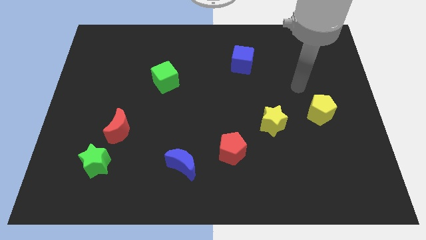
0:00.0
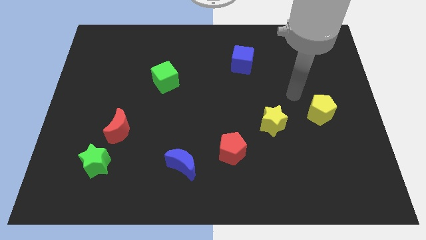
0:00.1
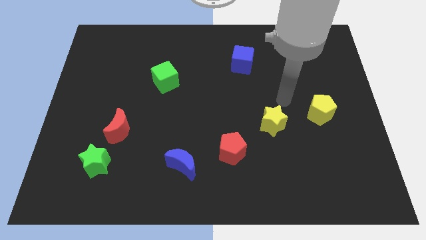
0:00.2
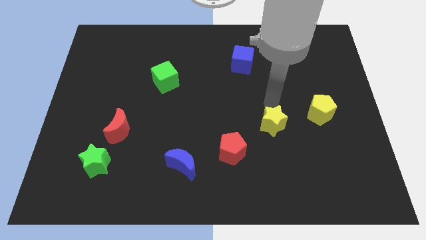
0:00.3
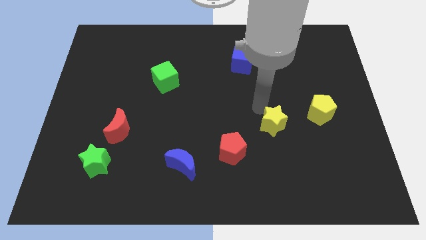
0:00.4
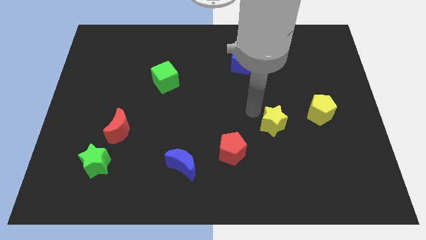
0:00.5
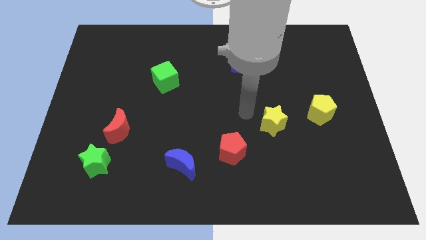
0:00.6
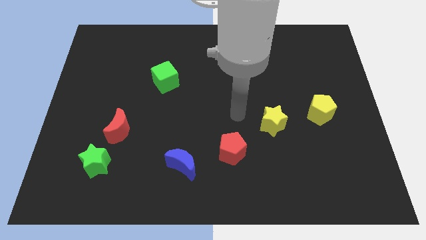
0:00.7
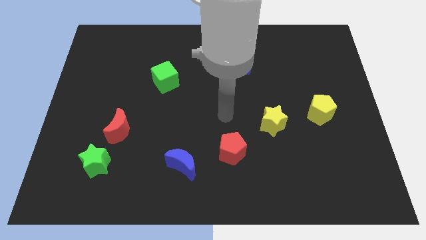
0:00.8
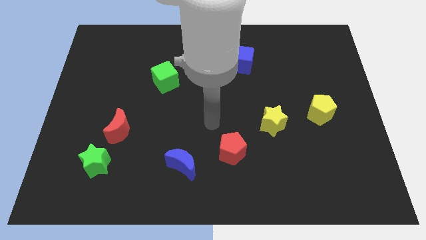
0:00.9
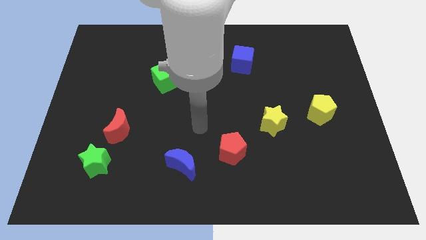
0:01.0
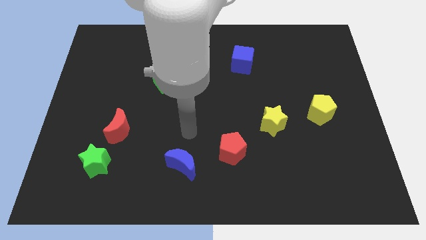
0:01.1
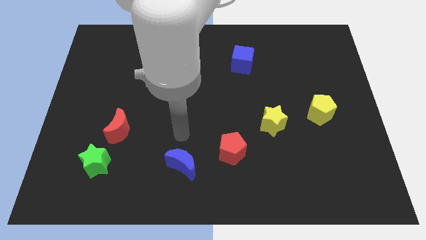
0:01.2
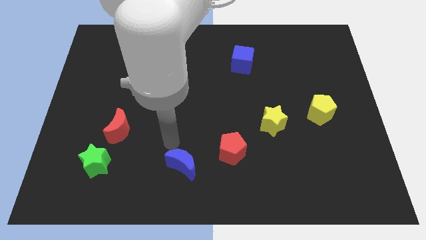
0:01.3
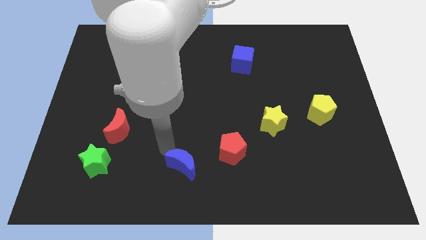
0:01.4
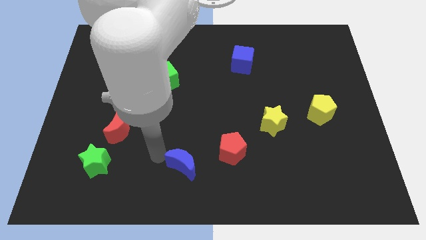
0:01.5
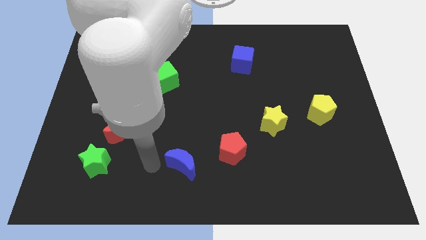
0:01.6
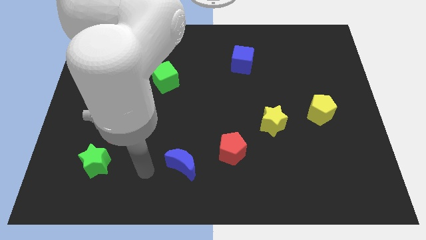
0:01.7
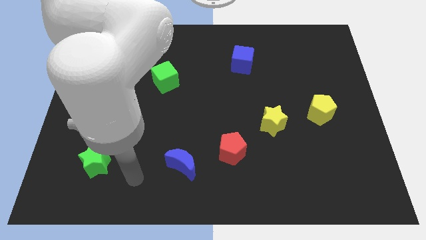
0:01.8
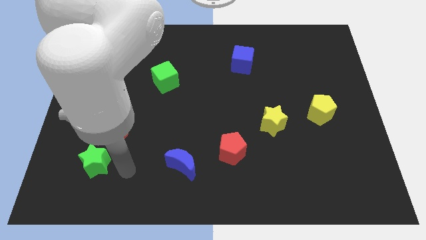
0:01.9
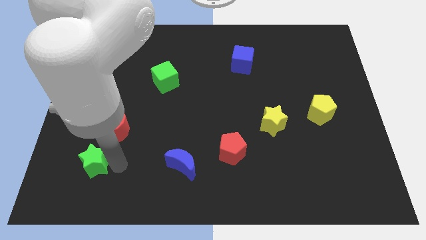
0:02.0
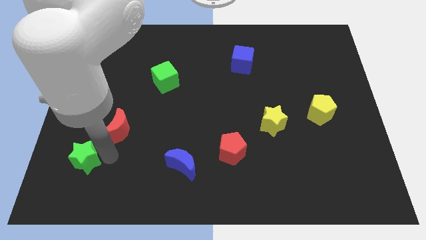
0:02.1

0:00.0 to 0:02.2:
separate the red moon from the green star

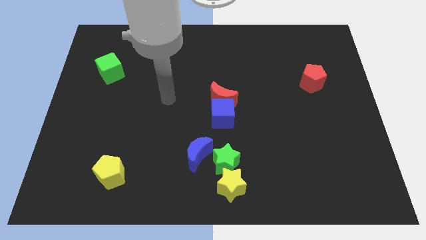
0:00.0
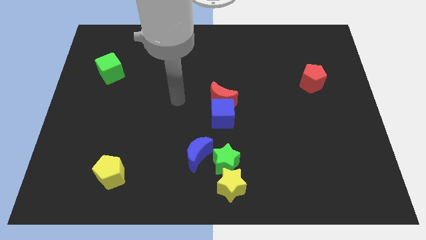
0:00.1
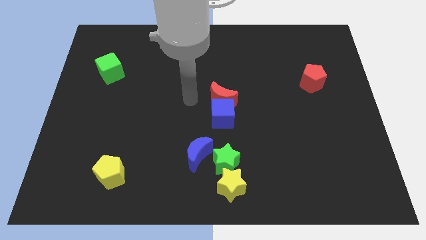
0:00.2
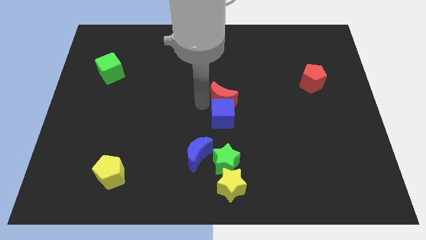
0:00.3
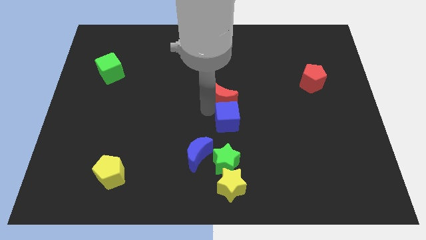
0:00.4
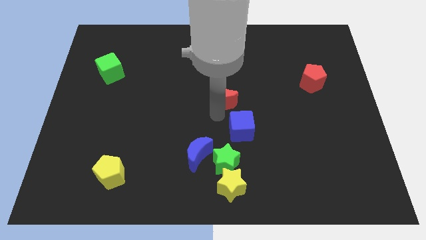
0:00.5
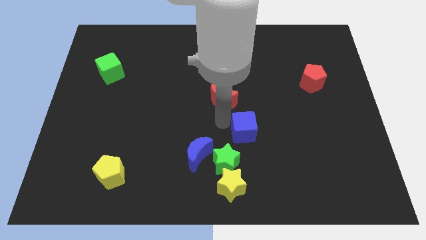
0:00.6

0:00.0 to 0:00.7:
pull the red moon apart from the blue cube

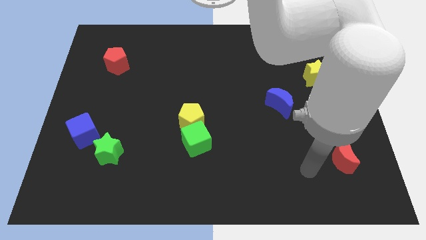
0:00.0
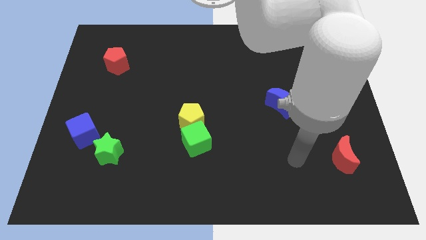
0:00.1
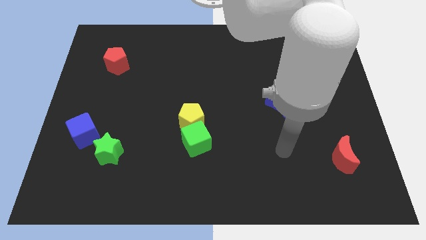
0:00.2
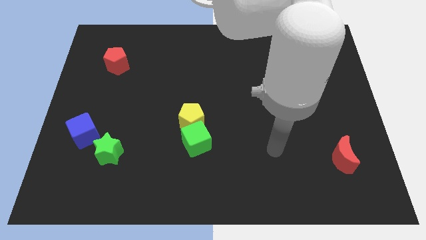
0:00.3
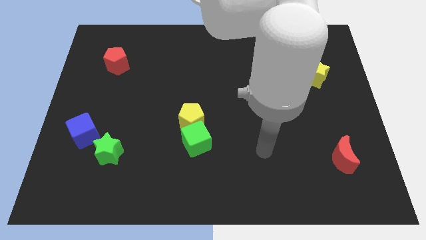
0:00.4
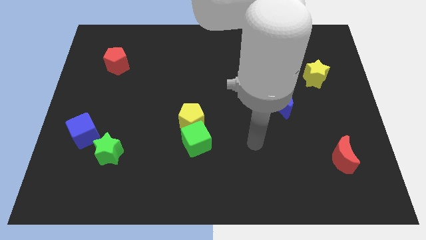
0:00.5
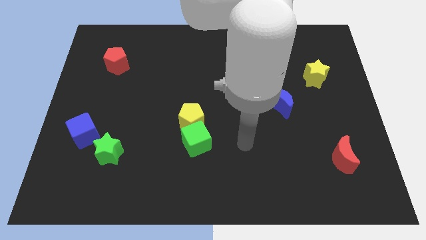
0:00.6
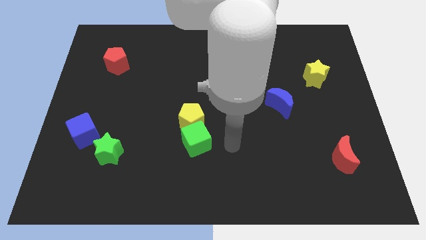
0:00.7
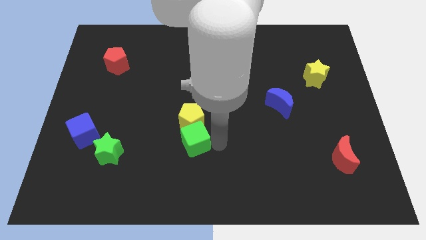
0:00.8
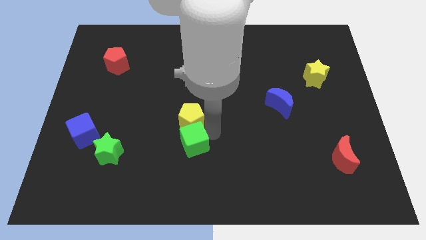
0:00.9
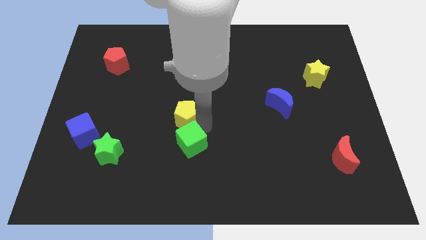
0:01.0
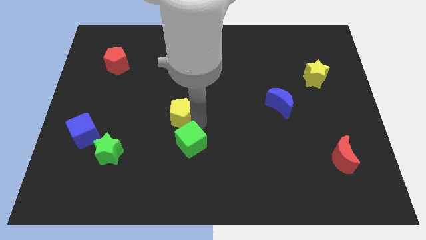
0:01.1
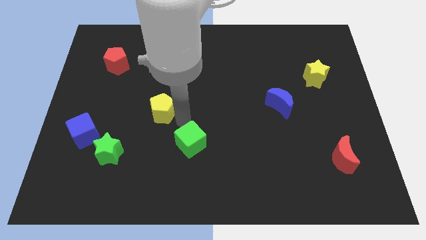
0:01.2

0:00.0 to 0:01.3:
separate the green cube from the yellow pentagon

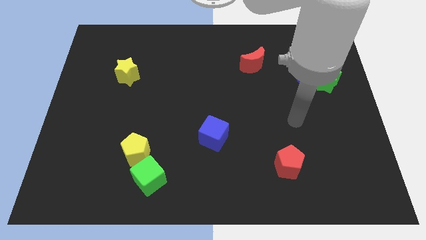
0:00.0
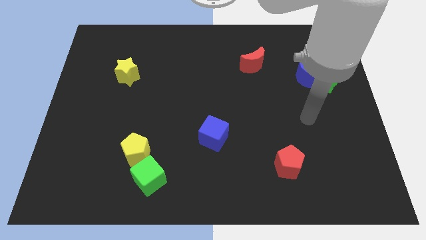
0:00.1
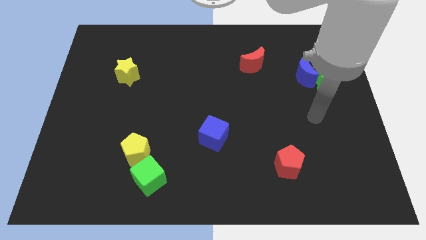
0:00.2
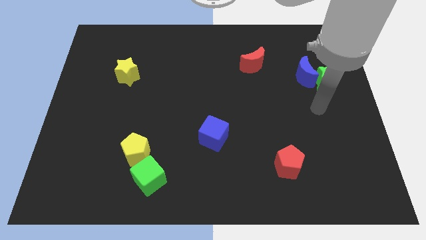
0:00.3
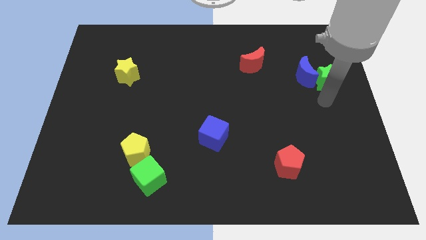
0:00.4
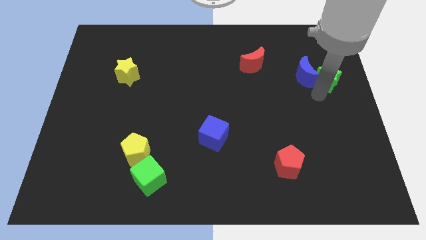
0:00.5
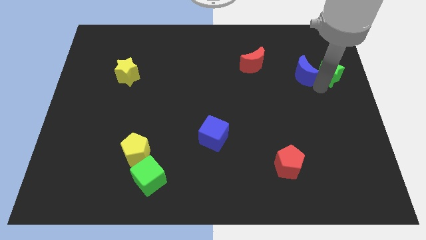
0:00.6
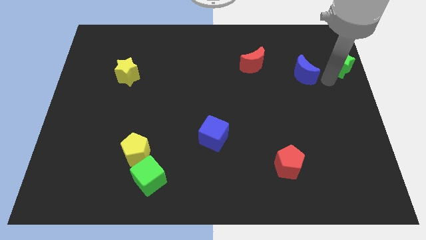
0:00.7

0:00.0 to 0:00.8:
pull the blue moon apart from the green star

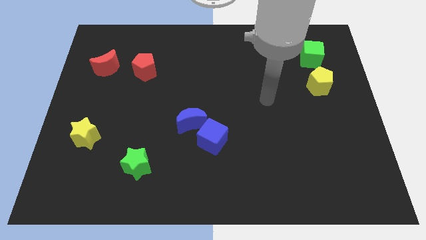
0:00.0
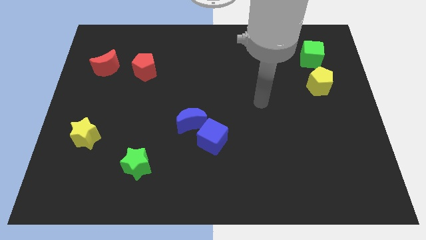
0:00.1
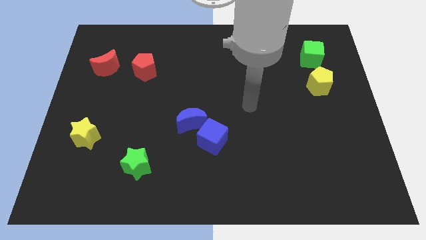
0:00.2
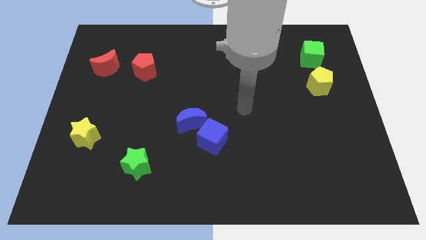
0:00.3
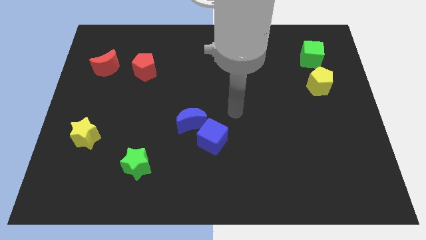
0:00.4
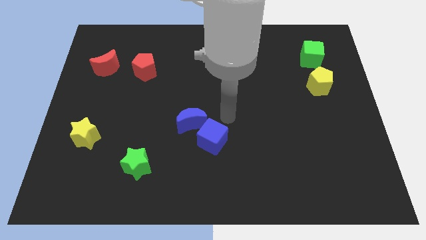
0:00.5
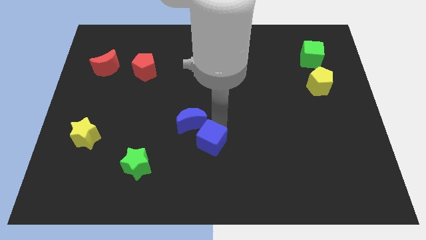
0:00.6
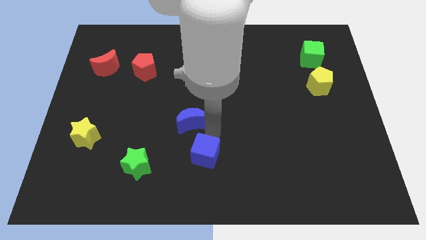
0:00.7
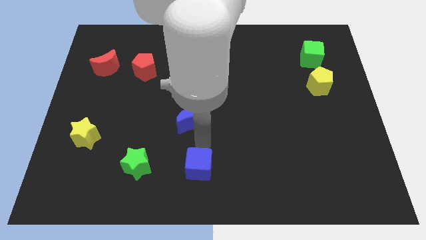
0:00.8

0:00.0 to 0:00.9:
move the blue moon away from the blue cube

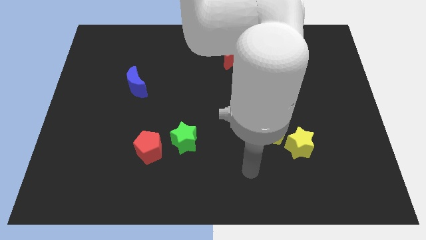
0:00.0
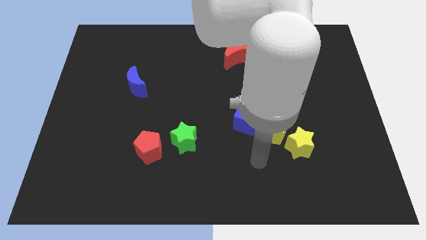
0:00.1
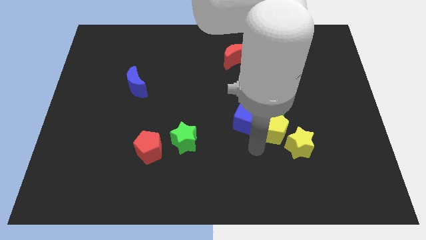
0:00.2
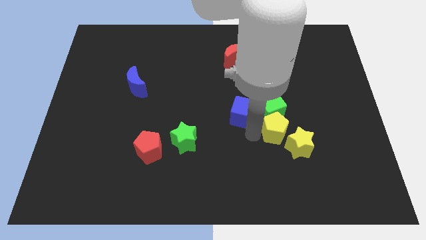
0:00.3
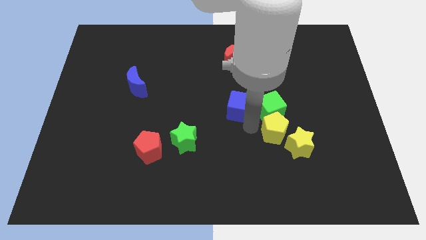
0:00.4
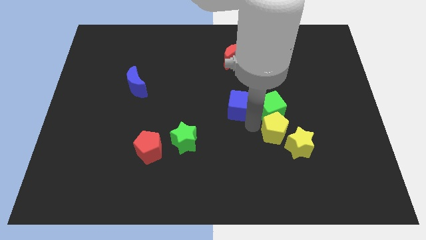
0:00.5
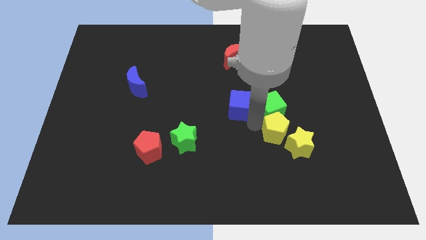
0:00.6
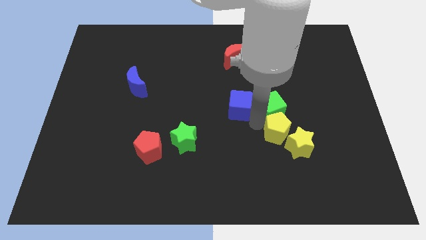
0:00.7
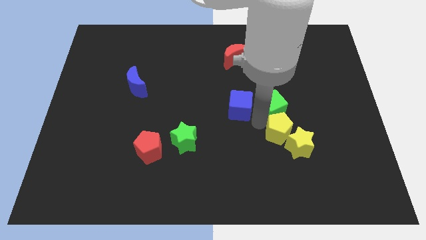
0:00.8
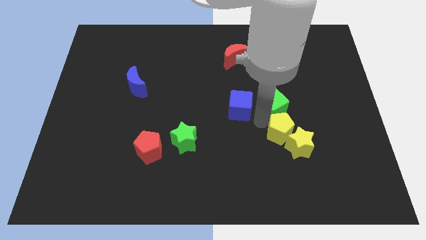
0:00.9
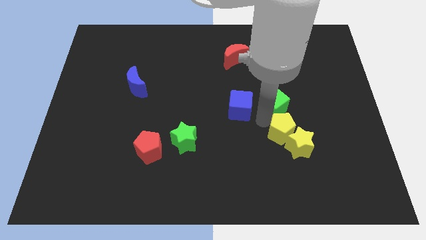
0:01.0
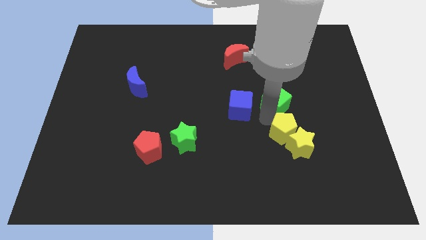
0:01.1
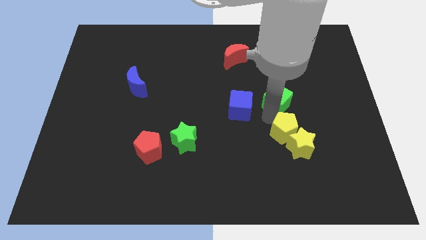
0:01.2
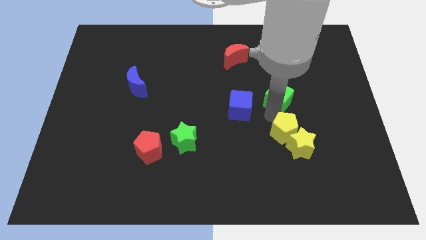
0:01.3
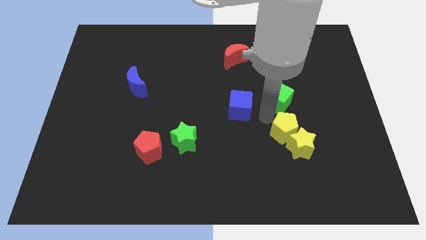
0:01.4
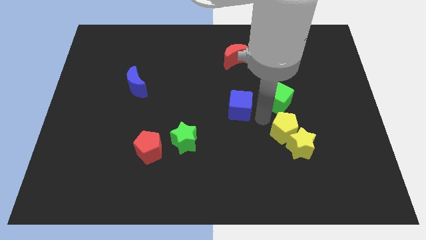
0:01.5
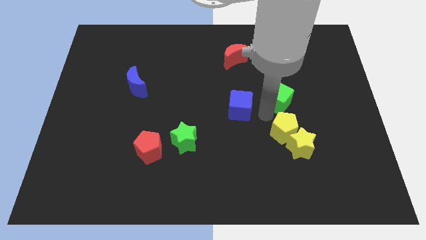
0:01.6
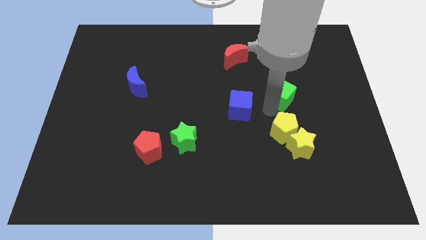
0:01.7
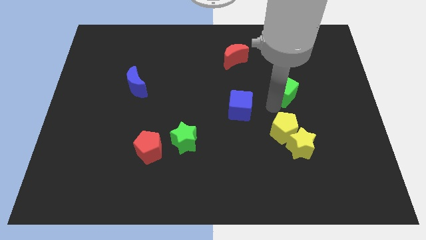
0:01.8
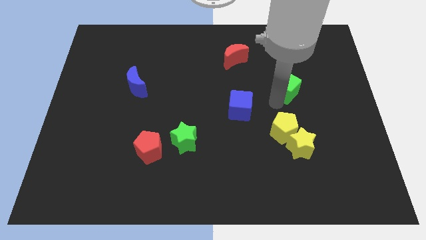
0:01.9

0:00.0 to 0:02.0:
move the green cube away from the yellow pentagon and blue cube

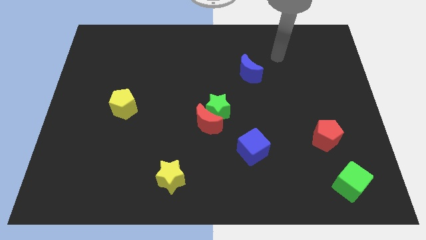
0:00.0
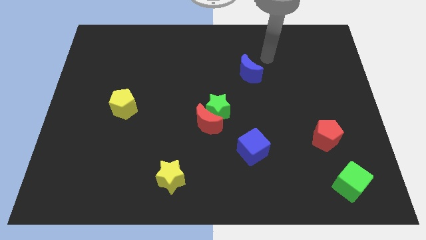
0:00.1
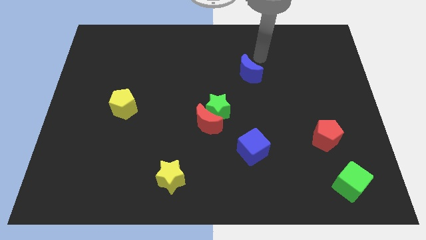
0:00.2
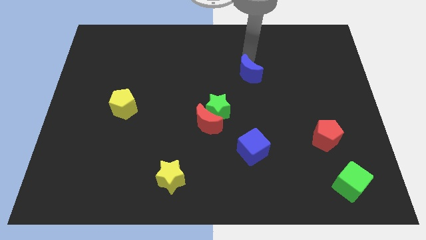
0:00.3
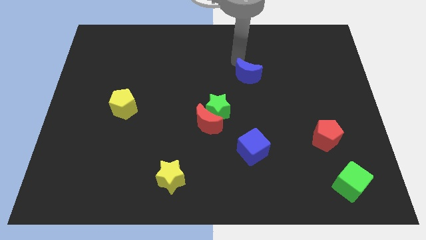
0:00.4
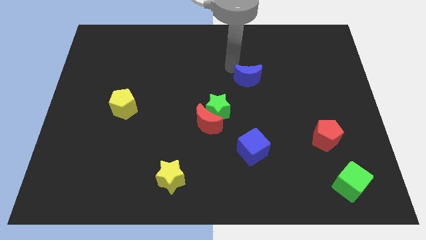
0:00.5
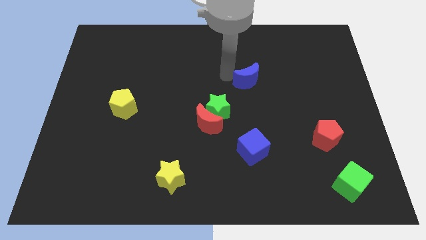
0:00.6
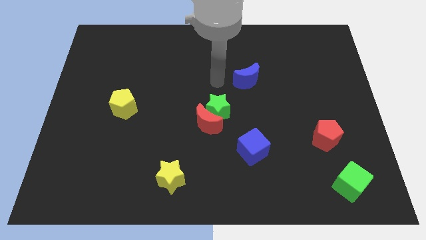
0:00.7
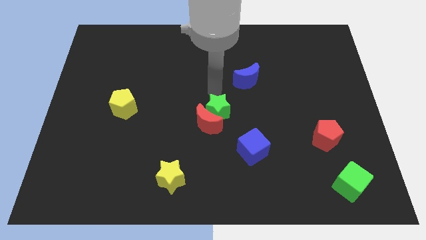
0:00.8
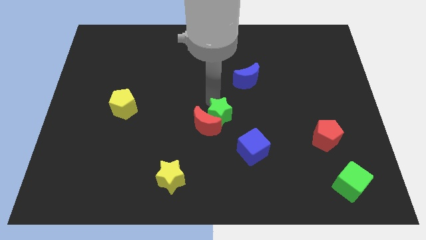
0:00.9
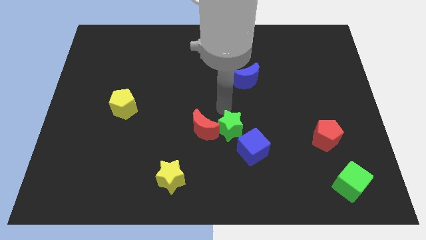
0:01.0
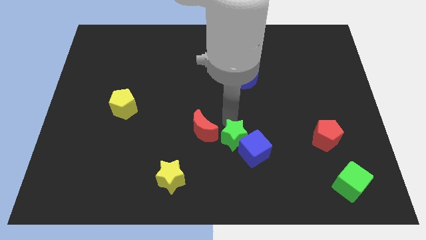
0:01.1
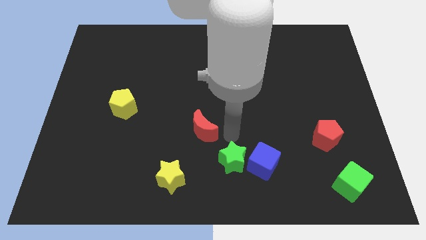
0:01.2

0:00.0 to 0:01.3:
move the red moon away from the green star
